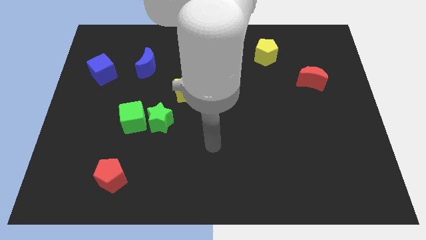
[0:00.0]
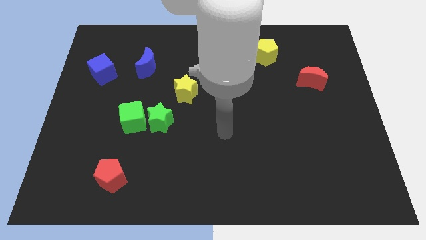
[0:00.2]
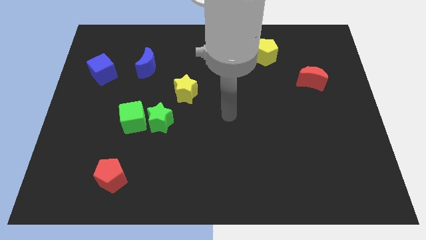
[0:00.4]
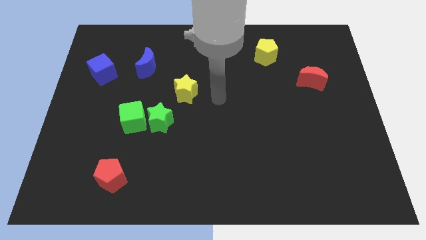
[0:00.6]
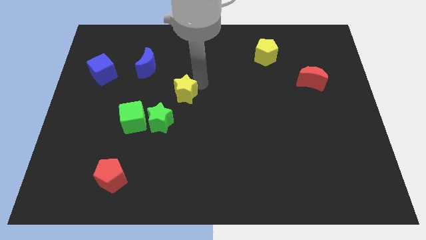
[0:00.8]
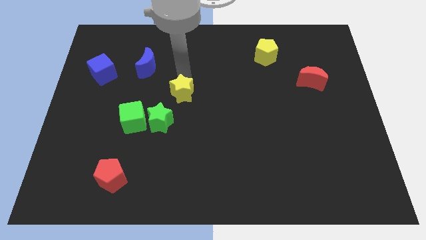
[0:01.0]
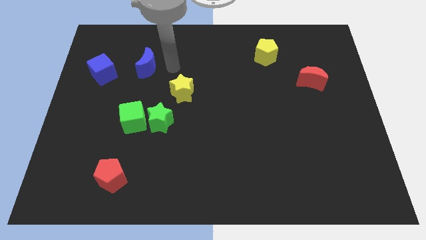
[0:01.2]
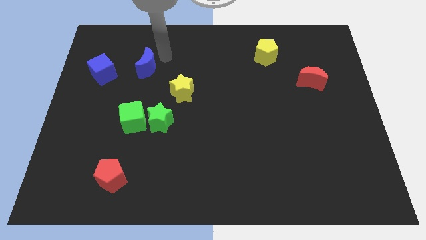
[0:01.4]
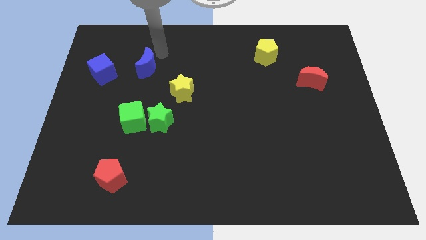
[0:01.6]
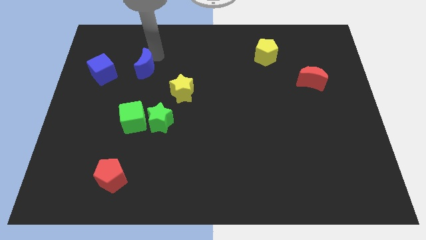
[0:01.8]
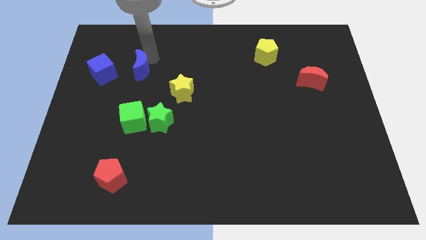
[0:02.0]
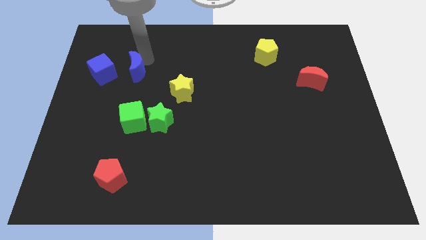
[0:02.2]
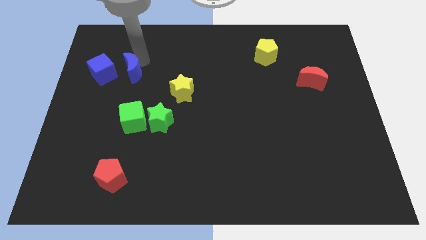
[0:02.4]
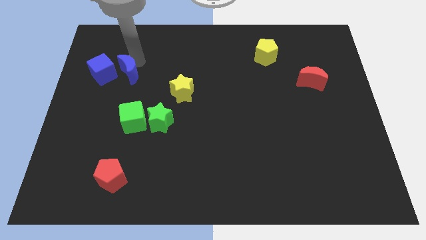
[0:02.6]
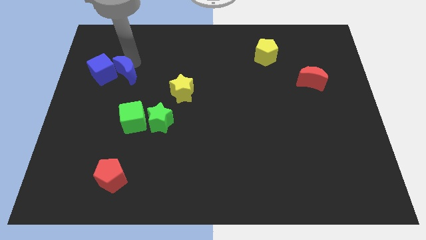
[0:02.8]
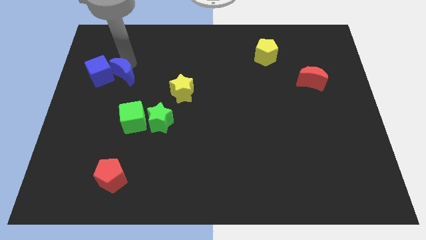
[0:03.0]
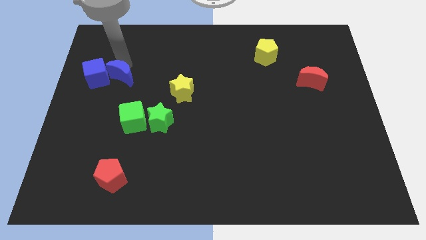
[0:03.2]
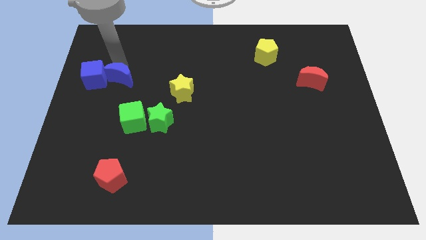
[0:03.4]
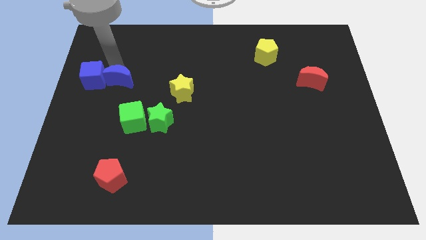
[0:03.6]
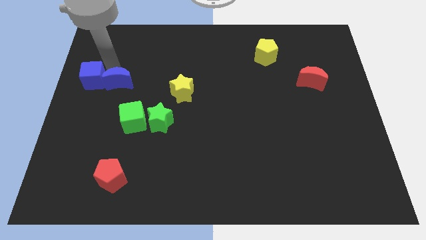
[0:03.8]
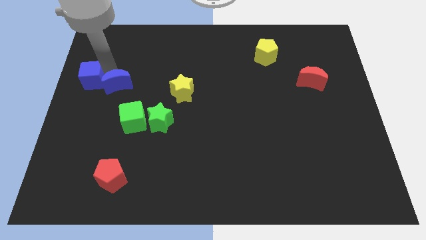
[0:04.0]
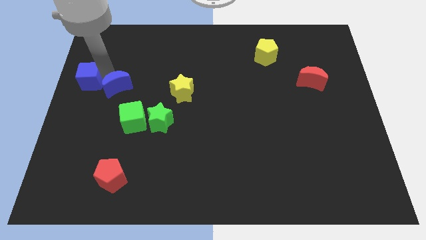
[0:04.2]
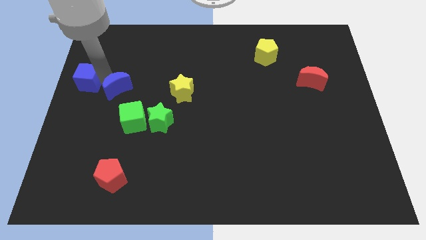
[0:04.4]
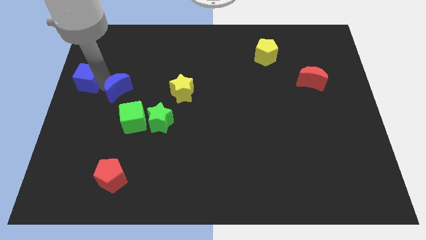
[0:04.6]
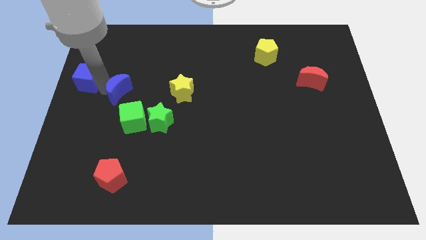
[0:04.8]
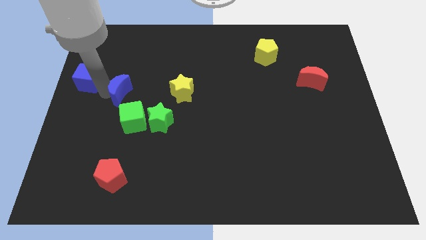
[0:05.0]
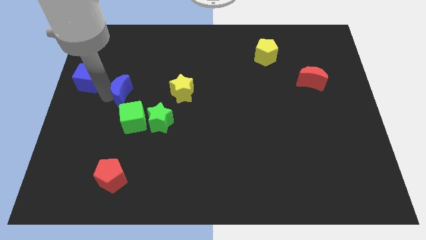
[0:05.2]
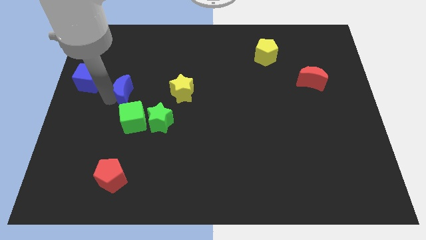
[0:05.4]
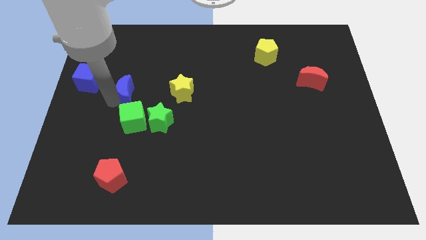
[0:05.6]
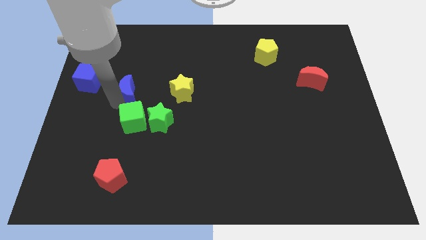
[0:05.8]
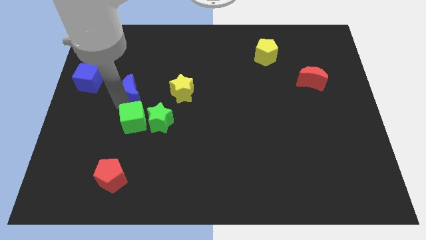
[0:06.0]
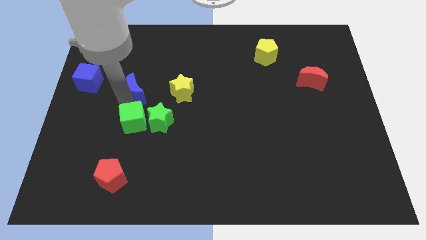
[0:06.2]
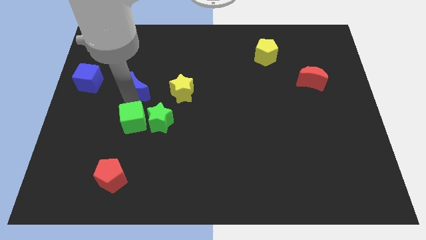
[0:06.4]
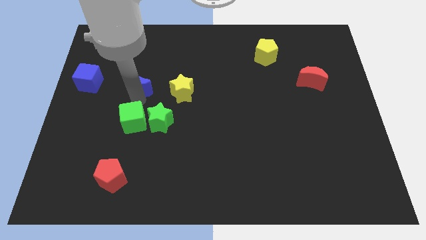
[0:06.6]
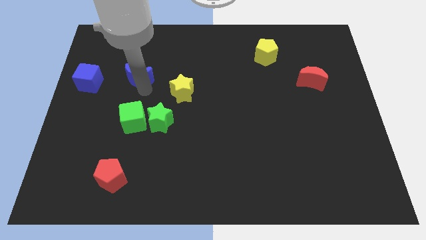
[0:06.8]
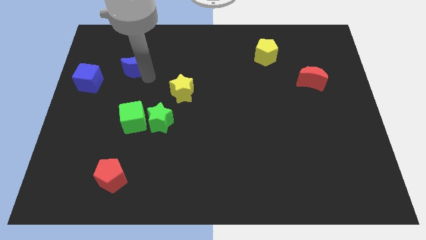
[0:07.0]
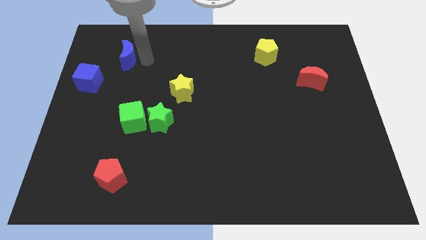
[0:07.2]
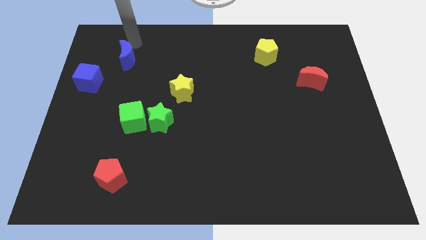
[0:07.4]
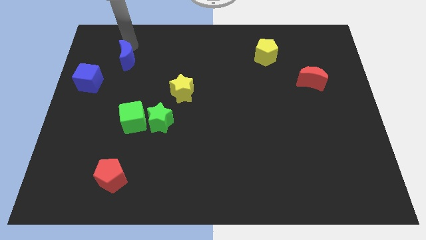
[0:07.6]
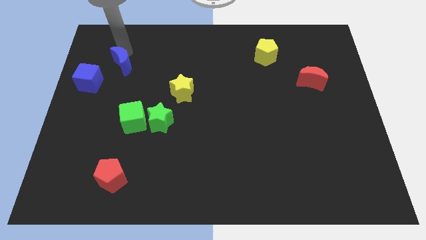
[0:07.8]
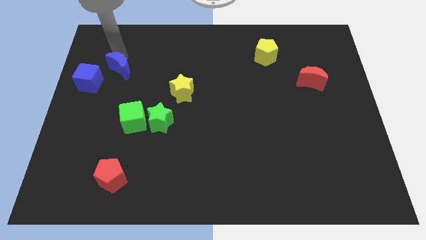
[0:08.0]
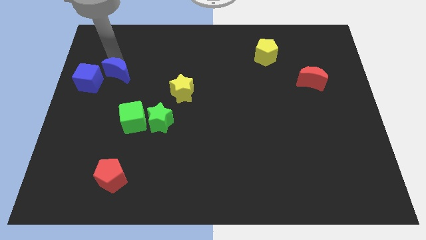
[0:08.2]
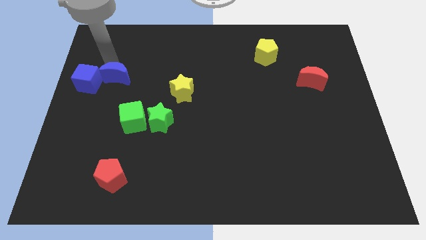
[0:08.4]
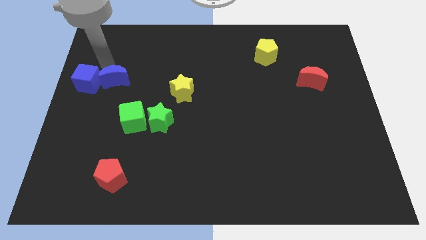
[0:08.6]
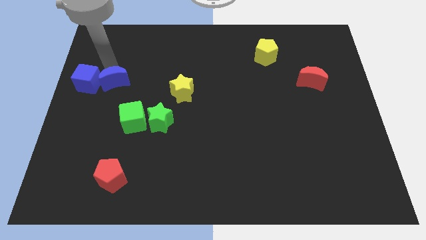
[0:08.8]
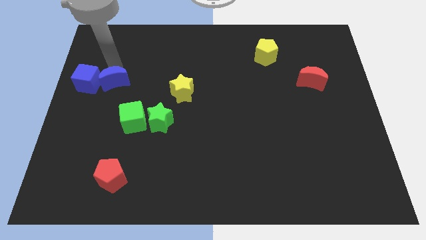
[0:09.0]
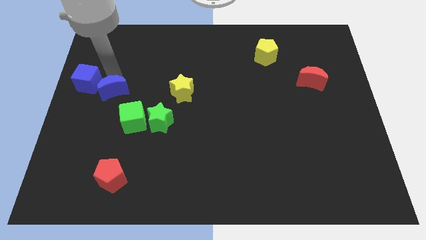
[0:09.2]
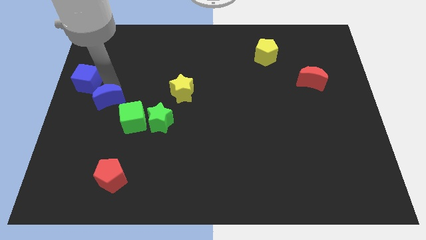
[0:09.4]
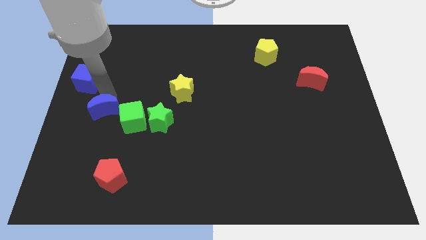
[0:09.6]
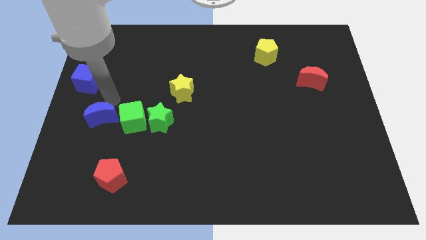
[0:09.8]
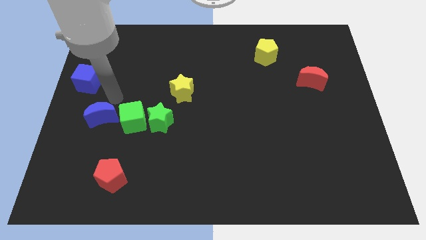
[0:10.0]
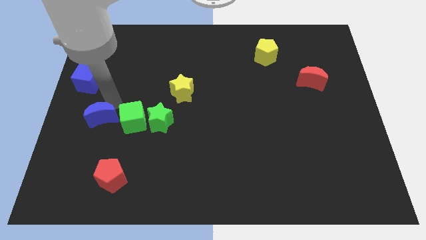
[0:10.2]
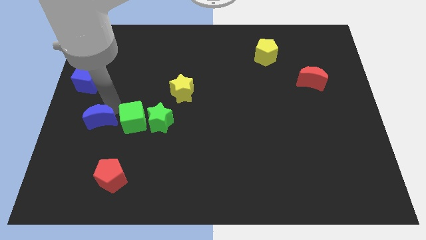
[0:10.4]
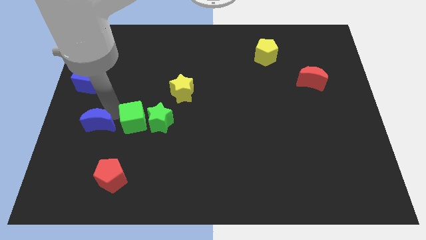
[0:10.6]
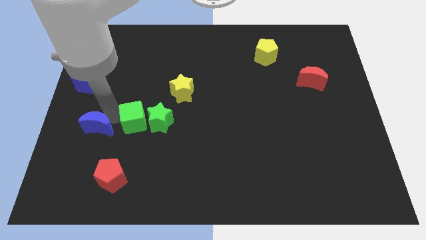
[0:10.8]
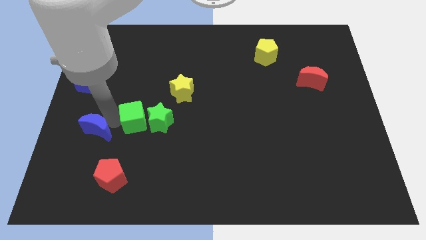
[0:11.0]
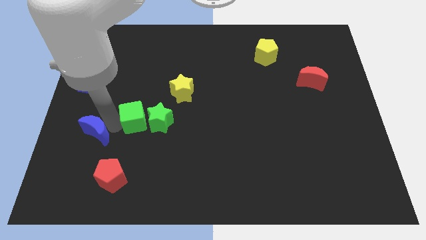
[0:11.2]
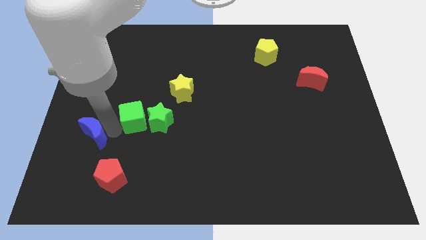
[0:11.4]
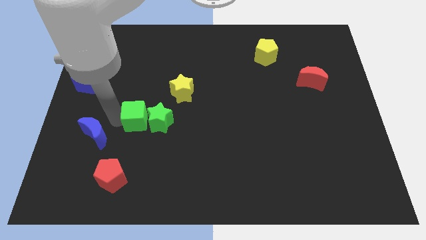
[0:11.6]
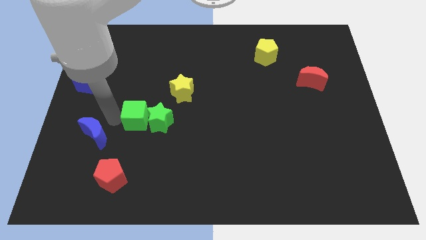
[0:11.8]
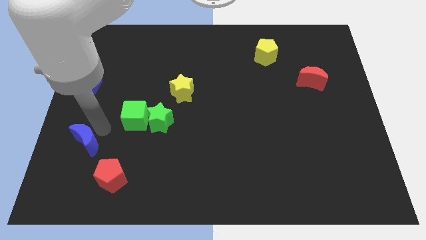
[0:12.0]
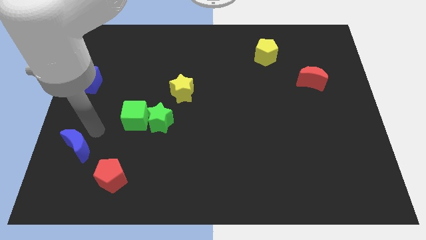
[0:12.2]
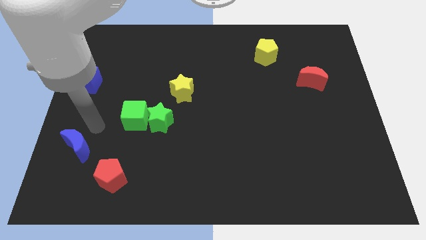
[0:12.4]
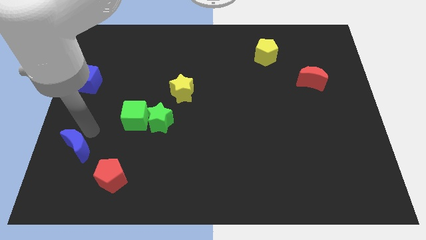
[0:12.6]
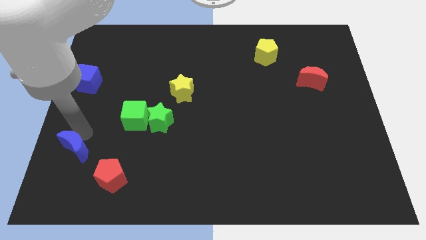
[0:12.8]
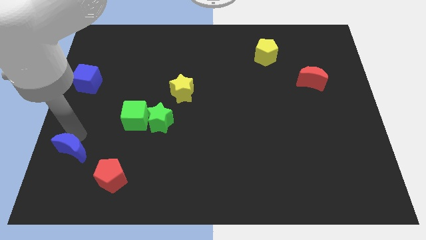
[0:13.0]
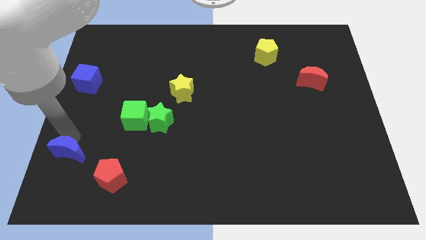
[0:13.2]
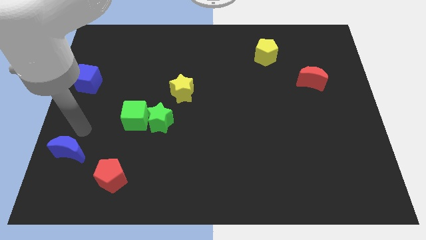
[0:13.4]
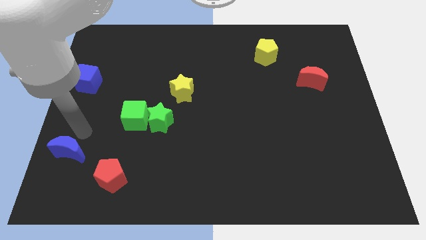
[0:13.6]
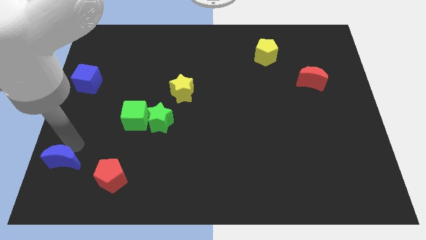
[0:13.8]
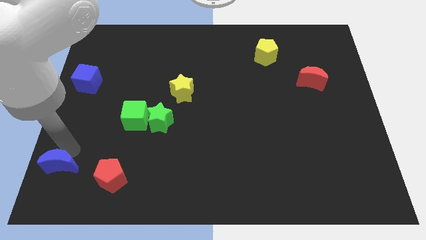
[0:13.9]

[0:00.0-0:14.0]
put the blue moon to the bottom left

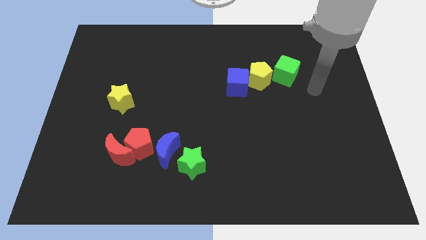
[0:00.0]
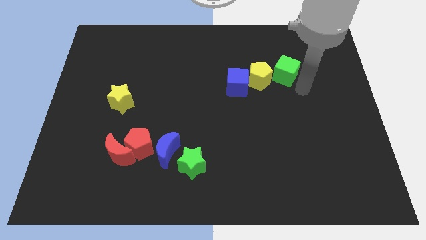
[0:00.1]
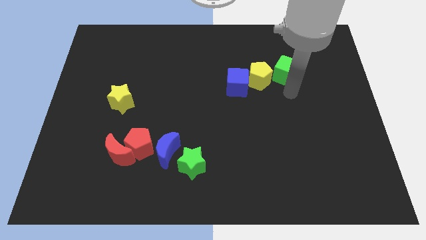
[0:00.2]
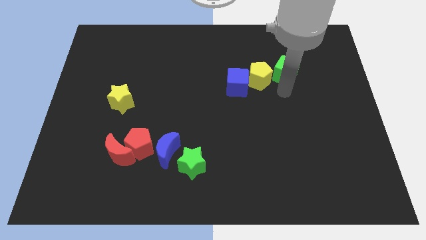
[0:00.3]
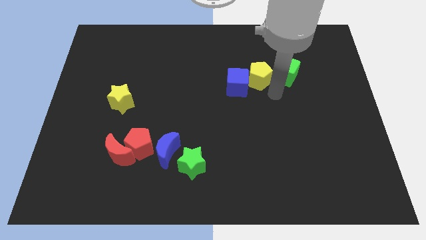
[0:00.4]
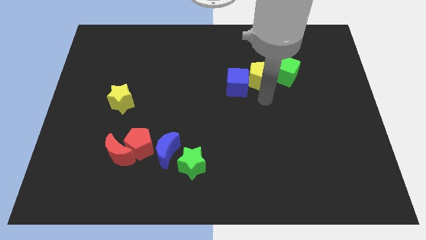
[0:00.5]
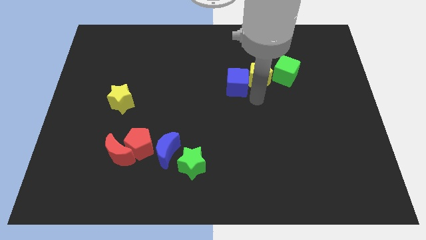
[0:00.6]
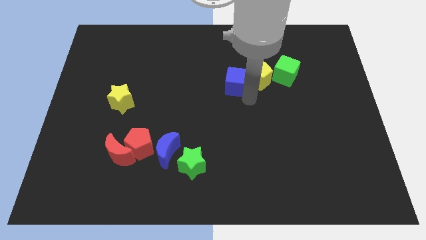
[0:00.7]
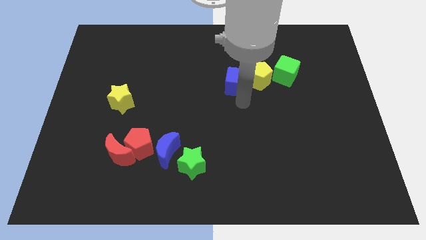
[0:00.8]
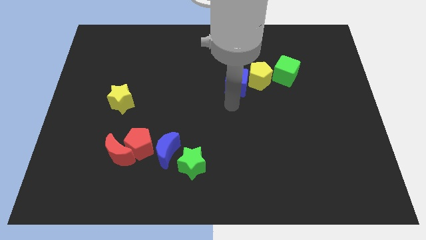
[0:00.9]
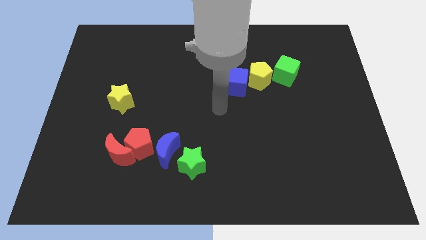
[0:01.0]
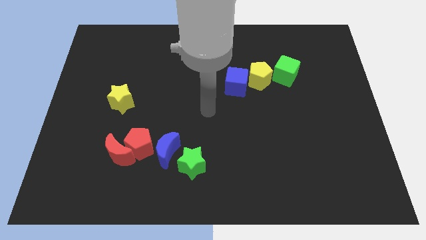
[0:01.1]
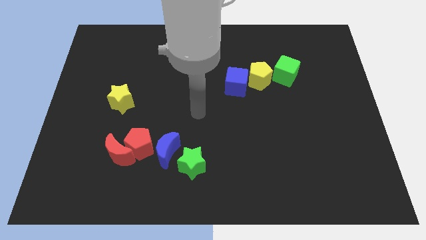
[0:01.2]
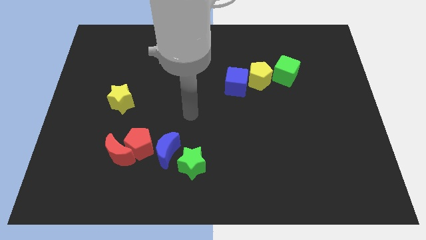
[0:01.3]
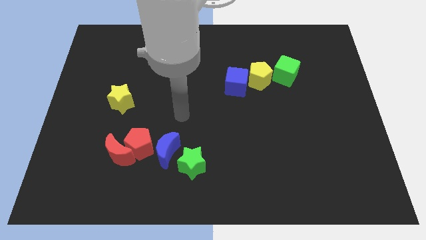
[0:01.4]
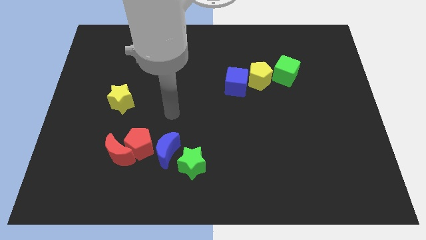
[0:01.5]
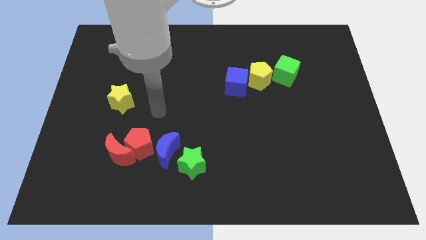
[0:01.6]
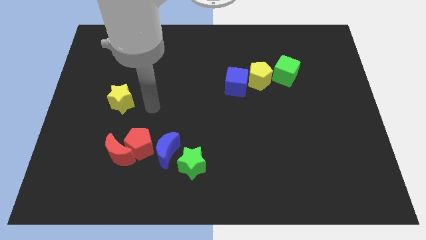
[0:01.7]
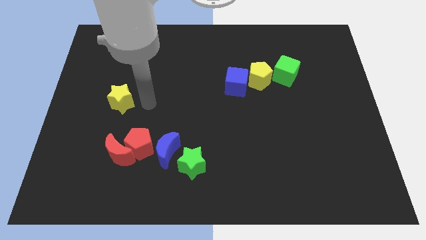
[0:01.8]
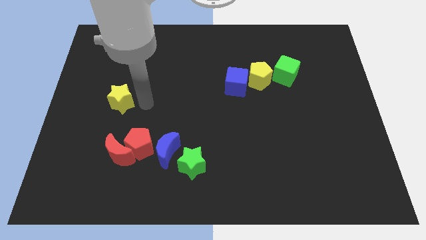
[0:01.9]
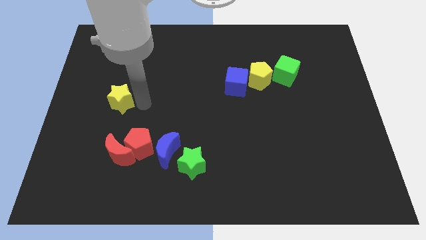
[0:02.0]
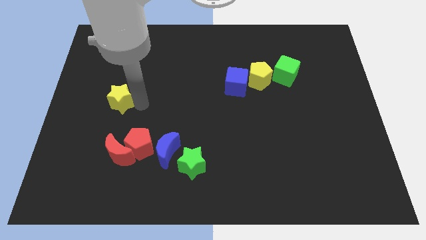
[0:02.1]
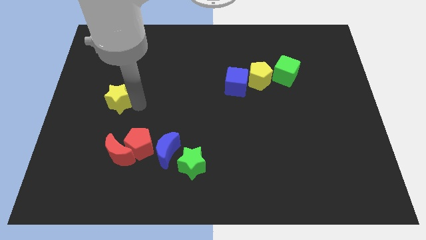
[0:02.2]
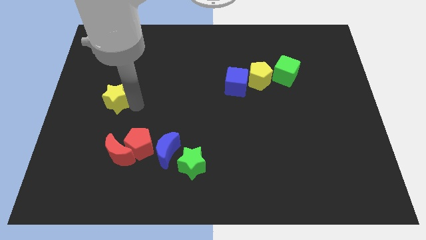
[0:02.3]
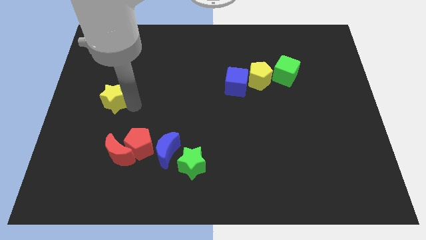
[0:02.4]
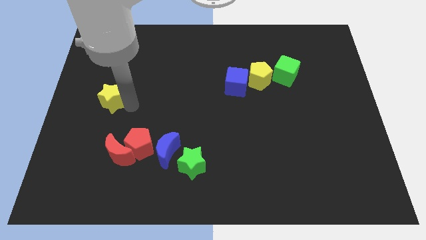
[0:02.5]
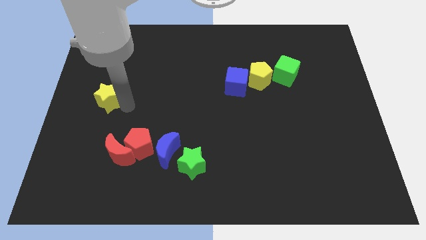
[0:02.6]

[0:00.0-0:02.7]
slide the yellow star to the center left
